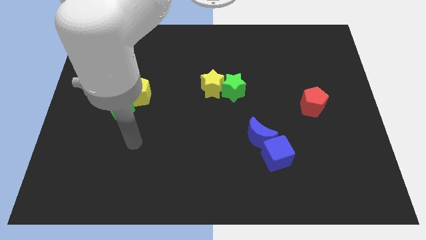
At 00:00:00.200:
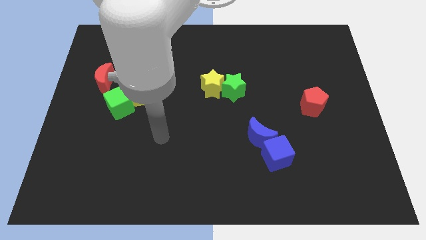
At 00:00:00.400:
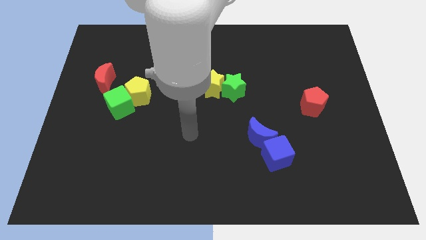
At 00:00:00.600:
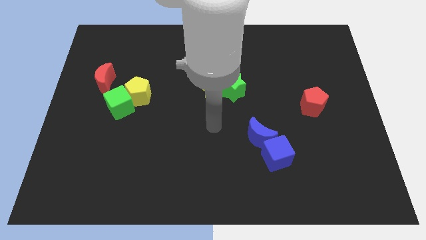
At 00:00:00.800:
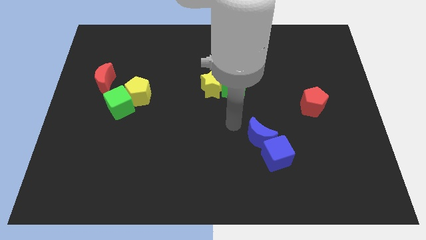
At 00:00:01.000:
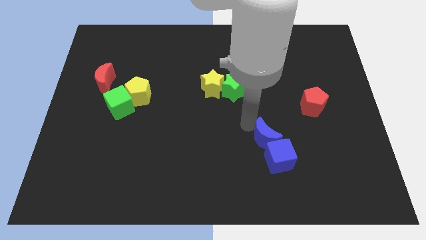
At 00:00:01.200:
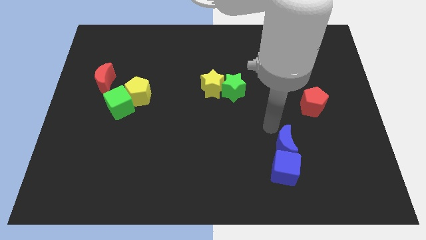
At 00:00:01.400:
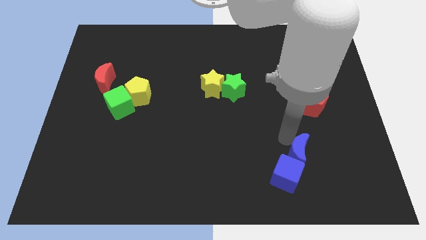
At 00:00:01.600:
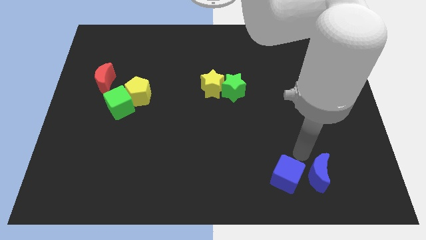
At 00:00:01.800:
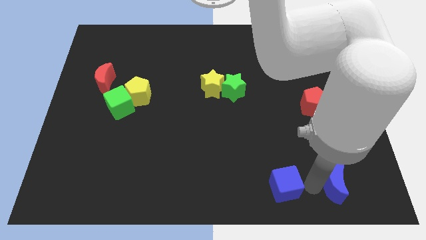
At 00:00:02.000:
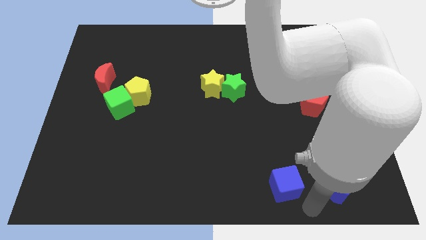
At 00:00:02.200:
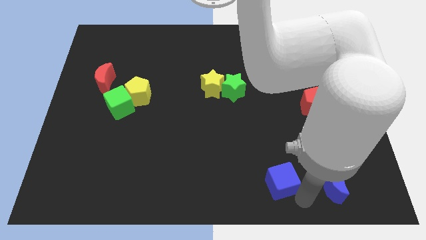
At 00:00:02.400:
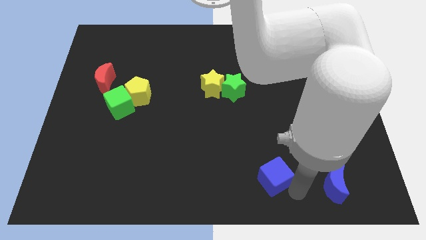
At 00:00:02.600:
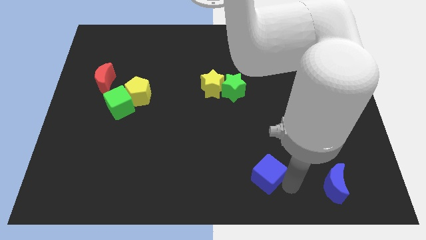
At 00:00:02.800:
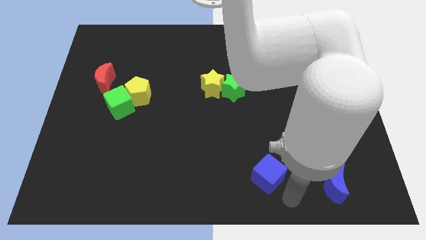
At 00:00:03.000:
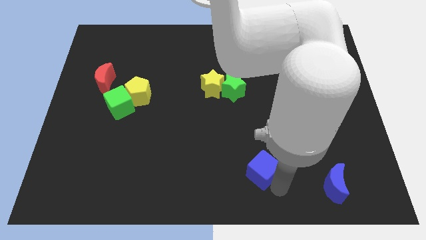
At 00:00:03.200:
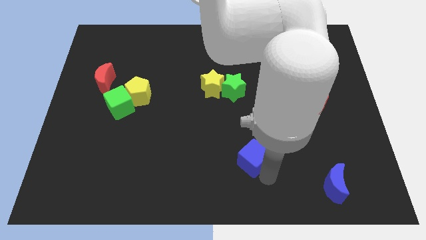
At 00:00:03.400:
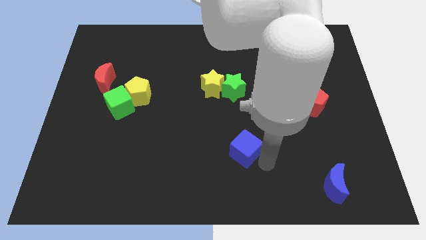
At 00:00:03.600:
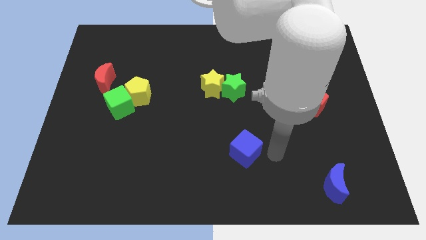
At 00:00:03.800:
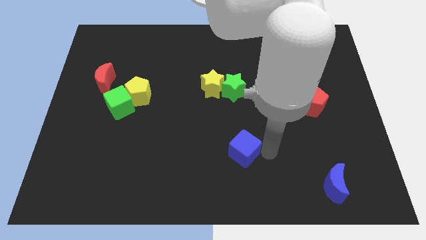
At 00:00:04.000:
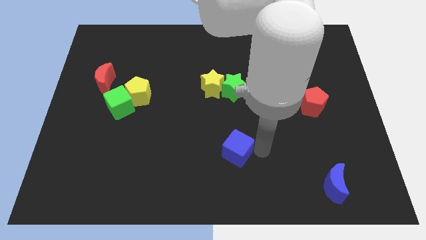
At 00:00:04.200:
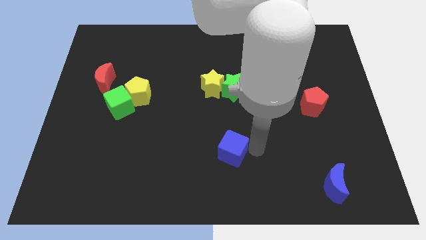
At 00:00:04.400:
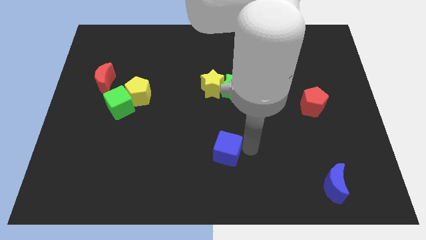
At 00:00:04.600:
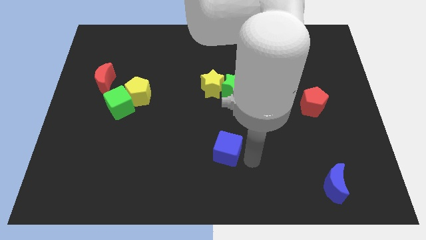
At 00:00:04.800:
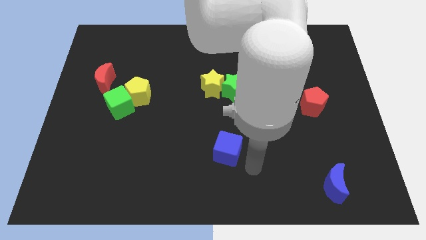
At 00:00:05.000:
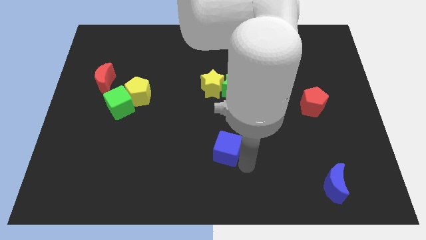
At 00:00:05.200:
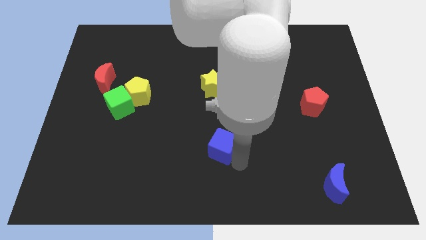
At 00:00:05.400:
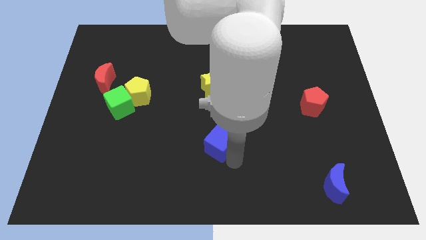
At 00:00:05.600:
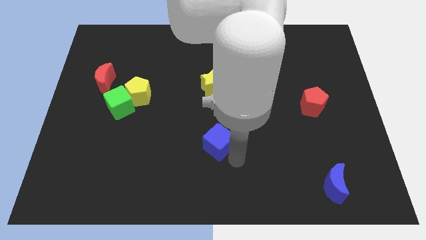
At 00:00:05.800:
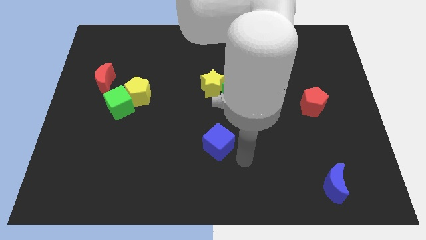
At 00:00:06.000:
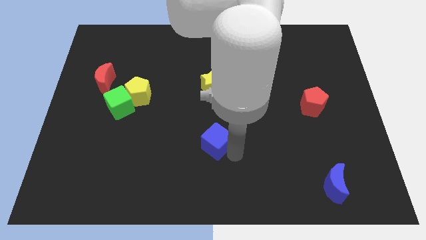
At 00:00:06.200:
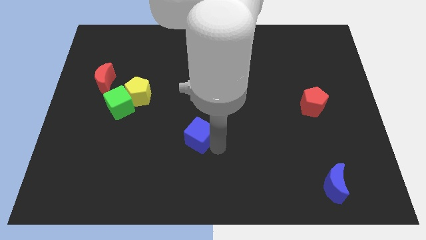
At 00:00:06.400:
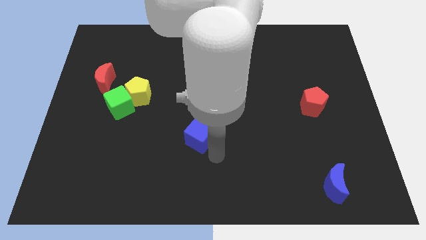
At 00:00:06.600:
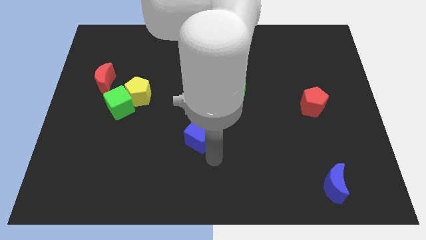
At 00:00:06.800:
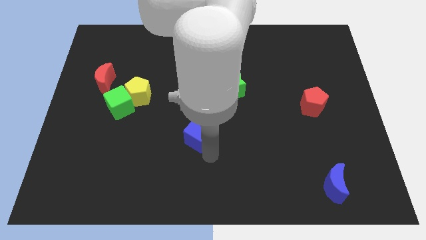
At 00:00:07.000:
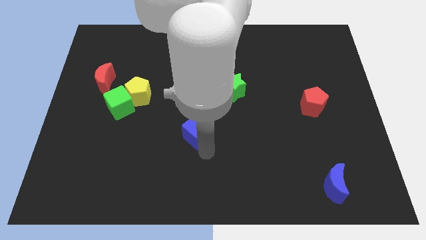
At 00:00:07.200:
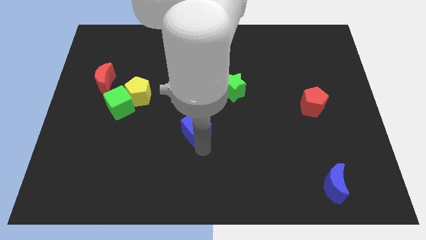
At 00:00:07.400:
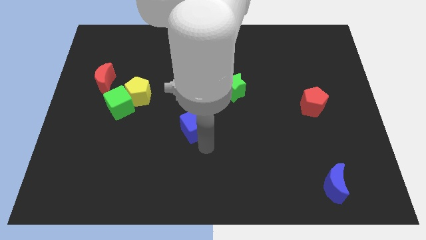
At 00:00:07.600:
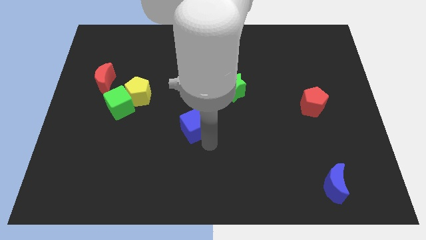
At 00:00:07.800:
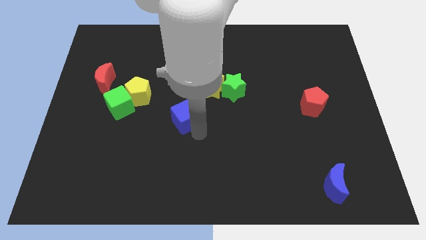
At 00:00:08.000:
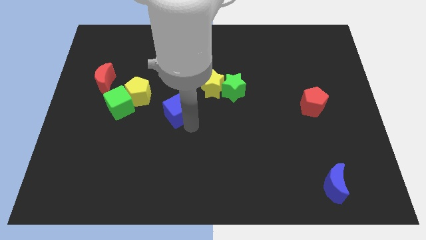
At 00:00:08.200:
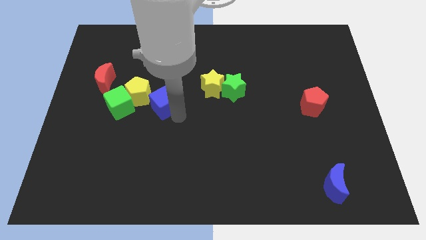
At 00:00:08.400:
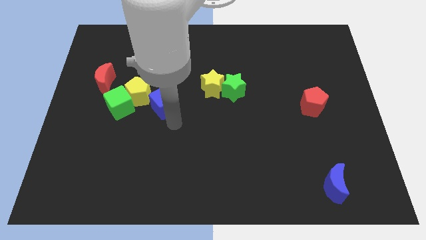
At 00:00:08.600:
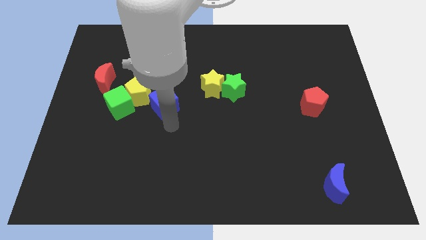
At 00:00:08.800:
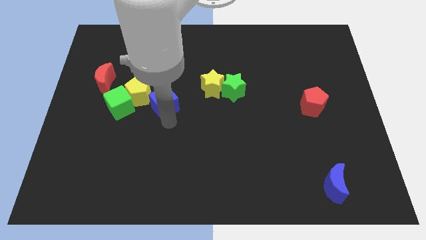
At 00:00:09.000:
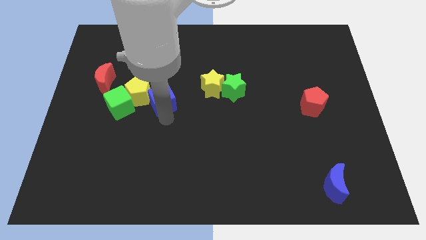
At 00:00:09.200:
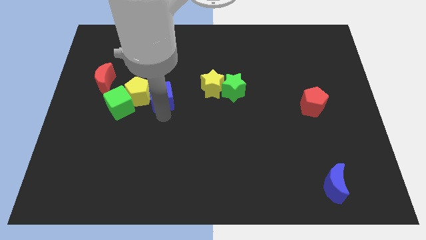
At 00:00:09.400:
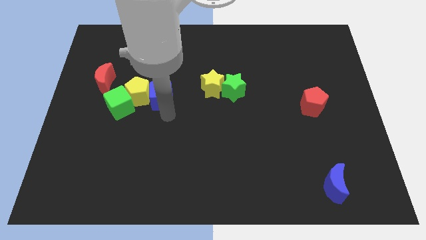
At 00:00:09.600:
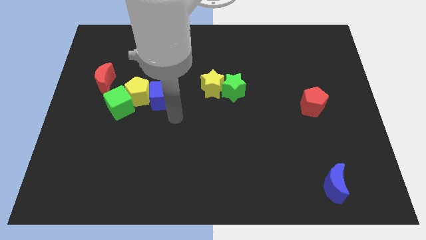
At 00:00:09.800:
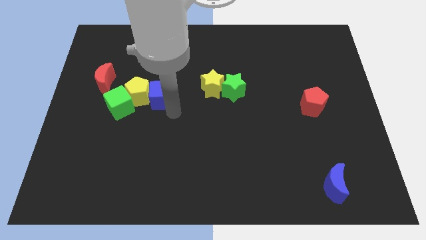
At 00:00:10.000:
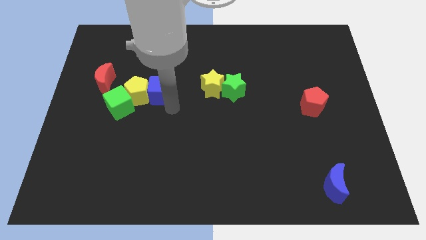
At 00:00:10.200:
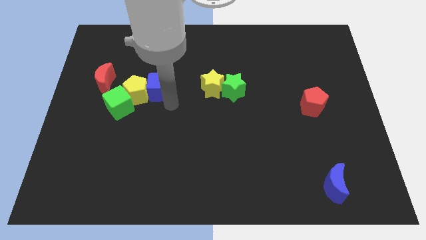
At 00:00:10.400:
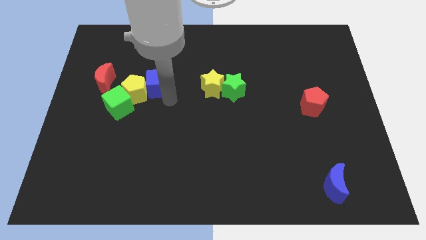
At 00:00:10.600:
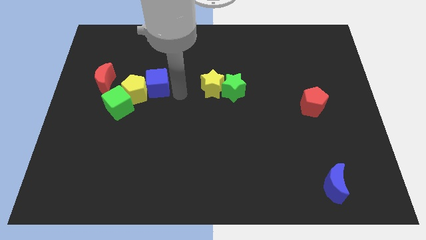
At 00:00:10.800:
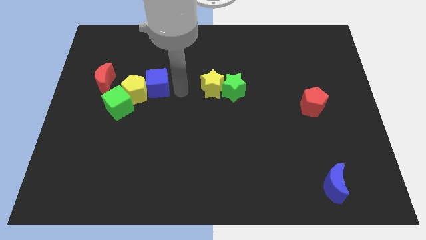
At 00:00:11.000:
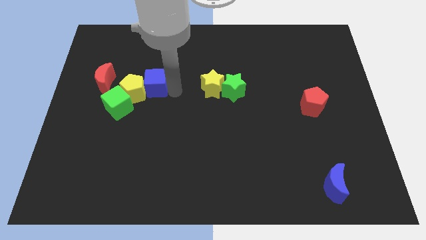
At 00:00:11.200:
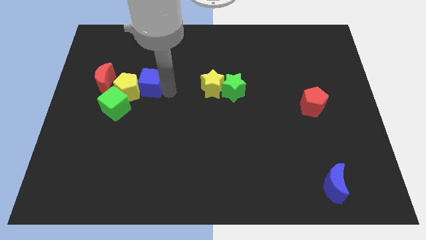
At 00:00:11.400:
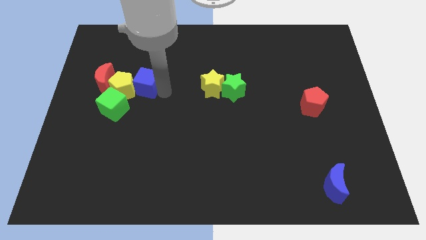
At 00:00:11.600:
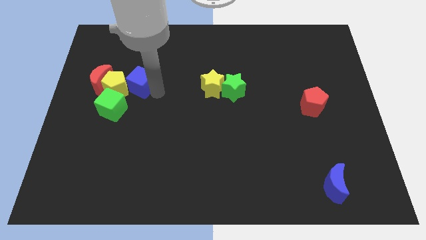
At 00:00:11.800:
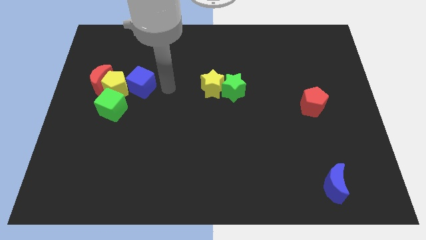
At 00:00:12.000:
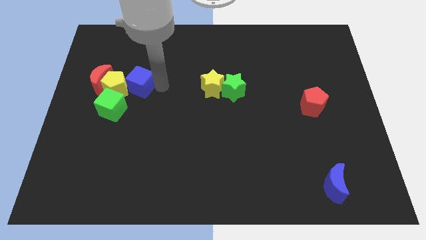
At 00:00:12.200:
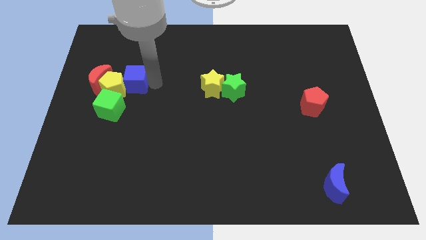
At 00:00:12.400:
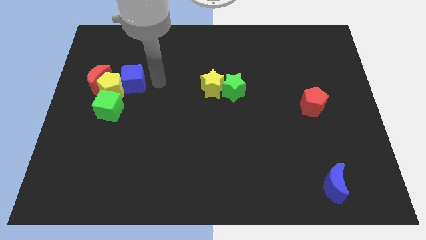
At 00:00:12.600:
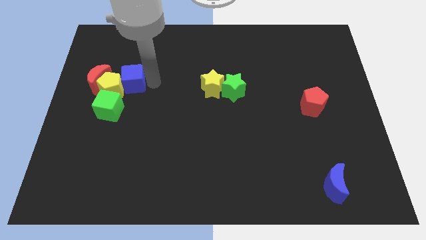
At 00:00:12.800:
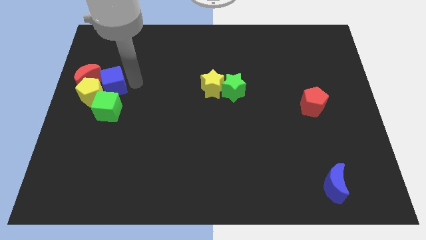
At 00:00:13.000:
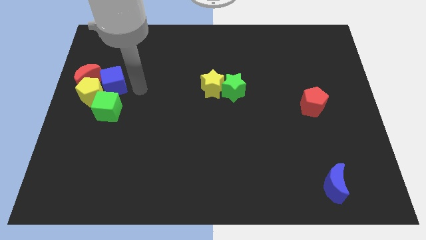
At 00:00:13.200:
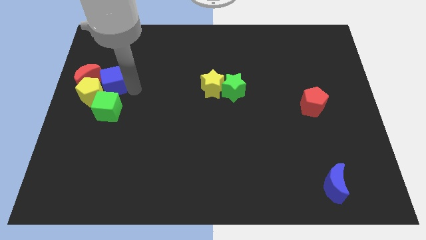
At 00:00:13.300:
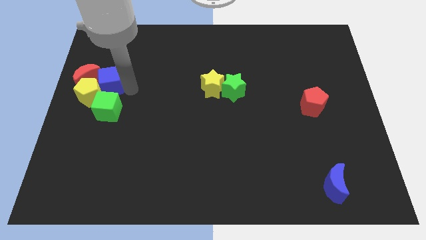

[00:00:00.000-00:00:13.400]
slide the blue cube towards the red moon

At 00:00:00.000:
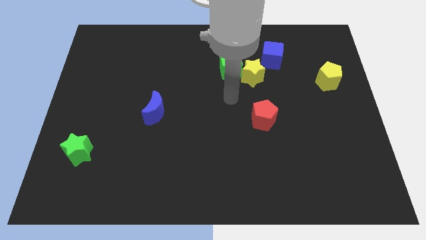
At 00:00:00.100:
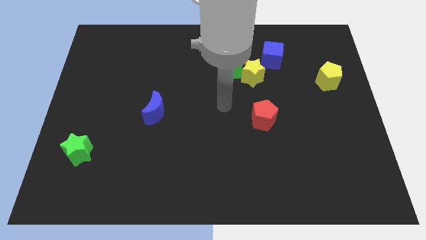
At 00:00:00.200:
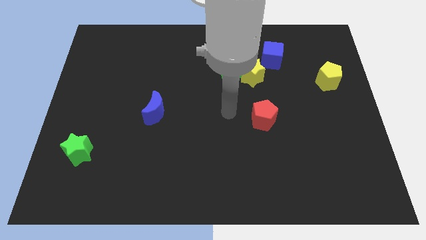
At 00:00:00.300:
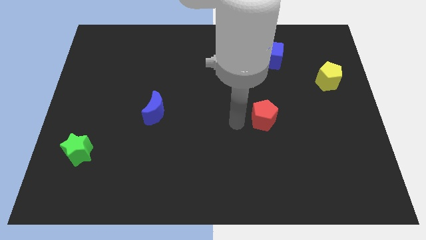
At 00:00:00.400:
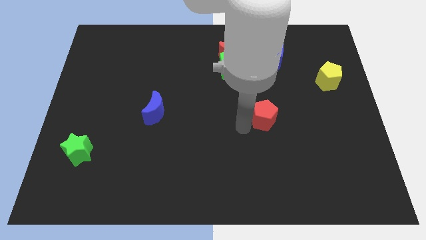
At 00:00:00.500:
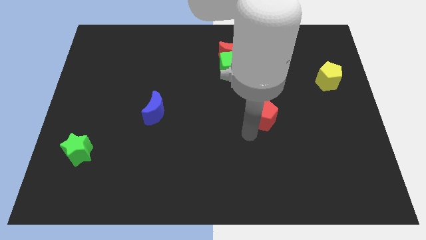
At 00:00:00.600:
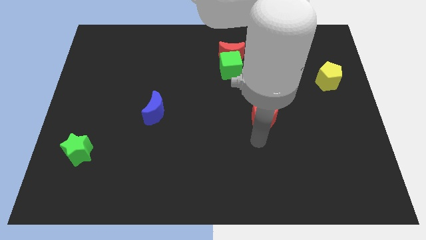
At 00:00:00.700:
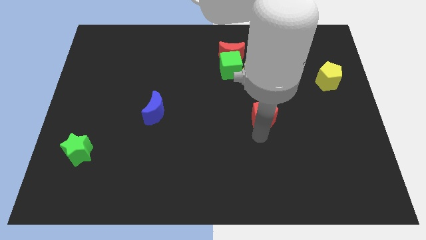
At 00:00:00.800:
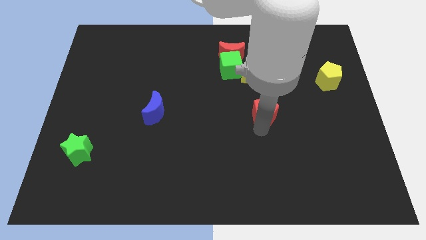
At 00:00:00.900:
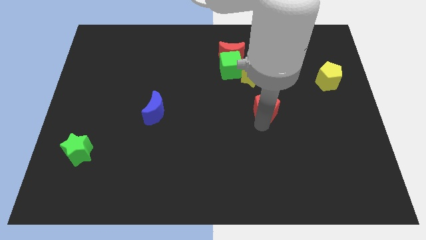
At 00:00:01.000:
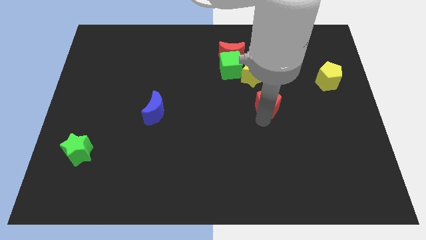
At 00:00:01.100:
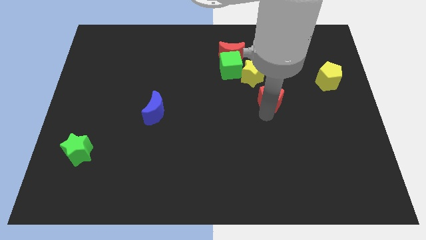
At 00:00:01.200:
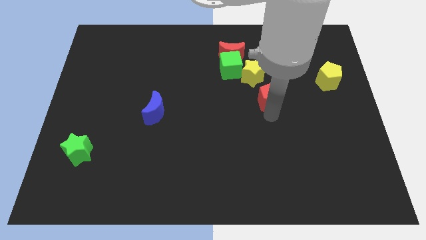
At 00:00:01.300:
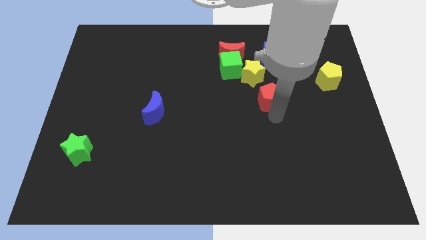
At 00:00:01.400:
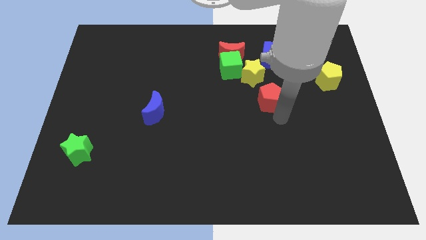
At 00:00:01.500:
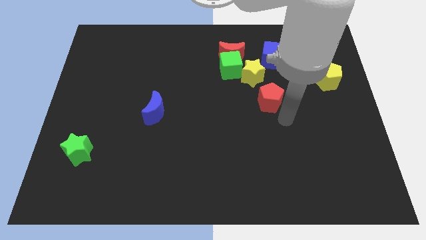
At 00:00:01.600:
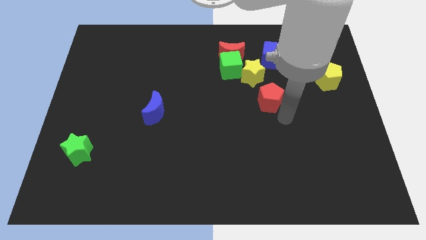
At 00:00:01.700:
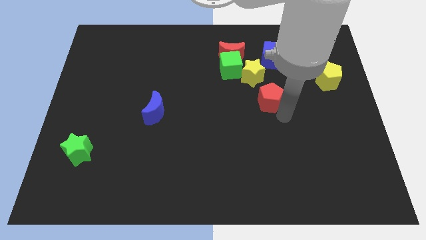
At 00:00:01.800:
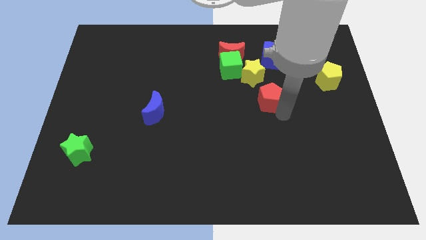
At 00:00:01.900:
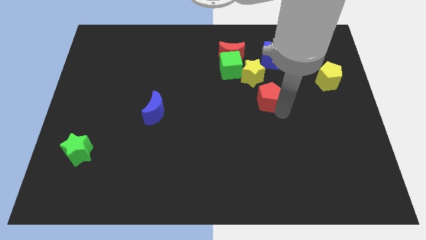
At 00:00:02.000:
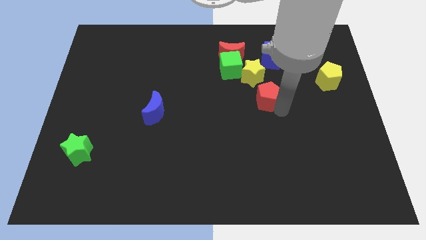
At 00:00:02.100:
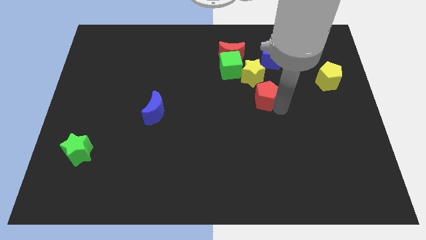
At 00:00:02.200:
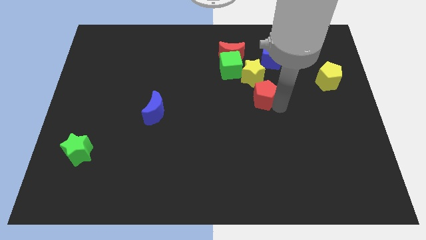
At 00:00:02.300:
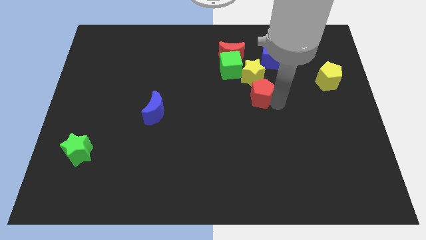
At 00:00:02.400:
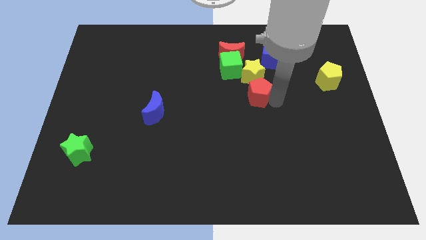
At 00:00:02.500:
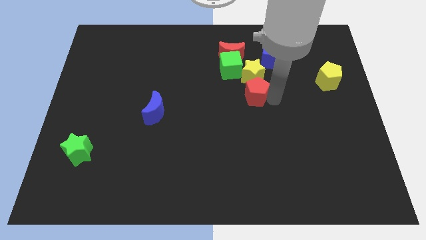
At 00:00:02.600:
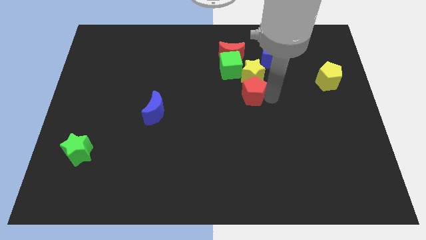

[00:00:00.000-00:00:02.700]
slide the red pentagon towards the yellow star
